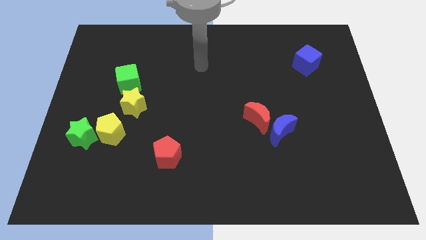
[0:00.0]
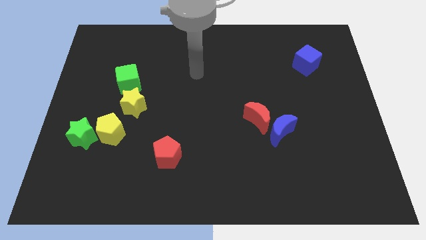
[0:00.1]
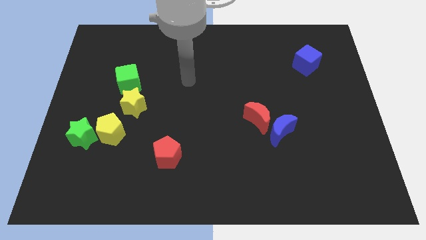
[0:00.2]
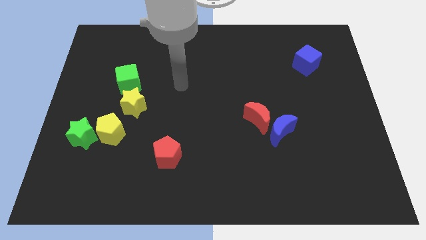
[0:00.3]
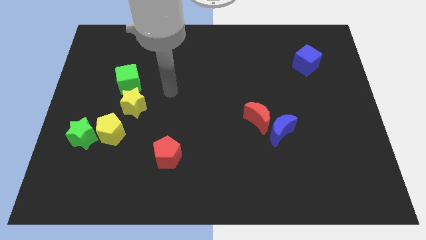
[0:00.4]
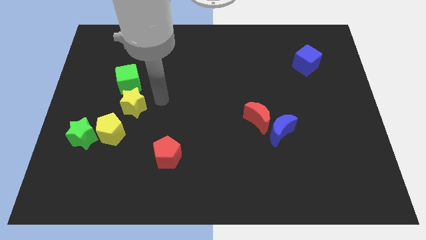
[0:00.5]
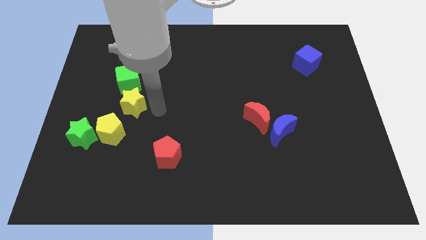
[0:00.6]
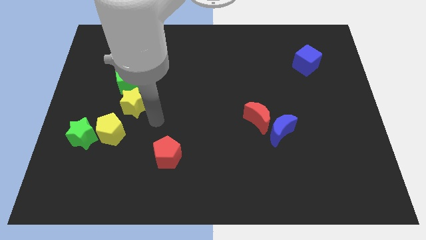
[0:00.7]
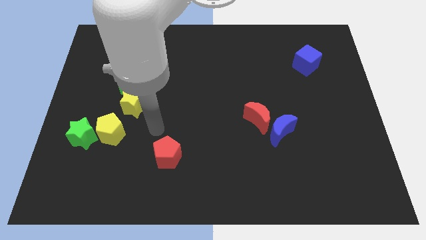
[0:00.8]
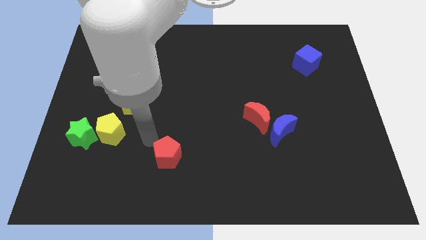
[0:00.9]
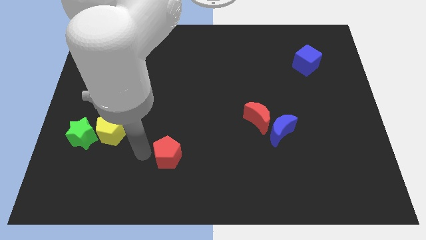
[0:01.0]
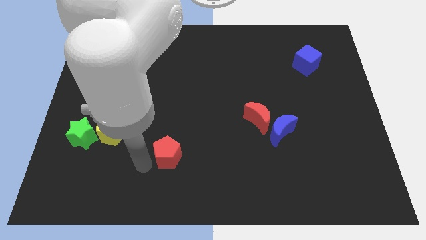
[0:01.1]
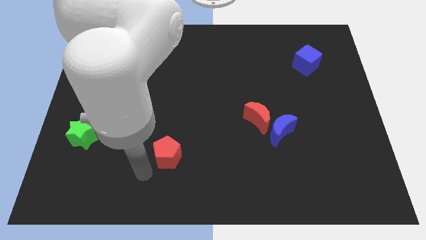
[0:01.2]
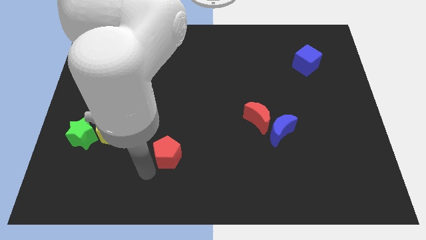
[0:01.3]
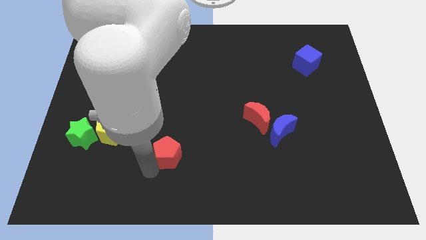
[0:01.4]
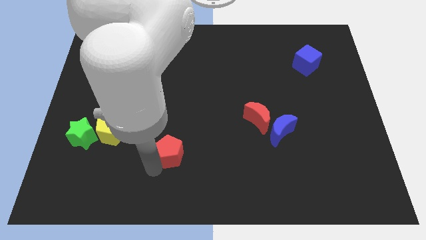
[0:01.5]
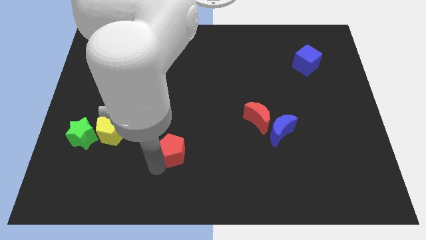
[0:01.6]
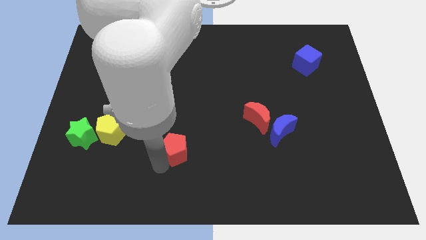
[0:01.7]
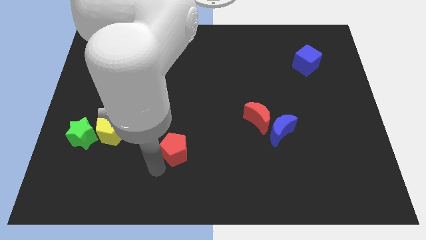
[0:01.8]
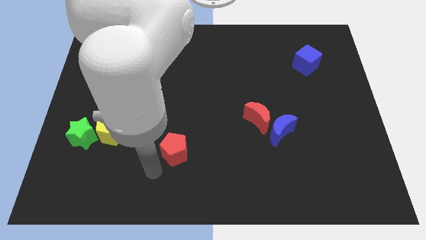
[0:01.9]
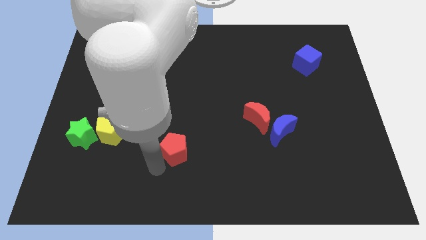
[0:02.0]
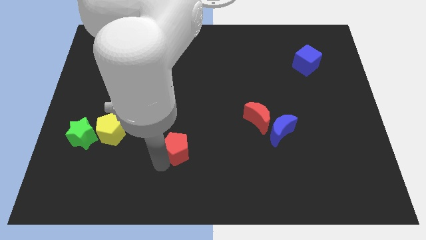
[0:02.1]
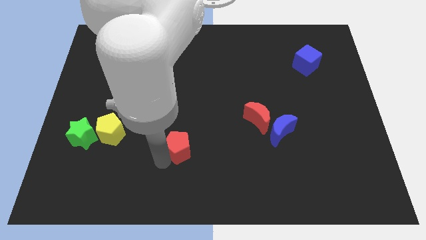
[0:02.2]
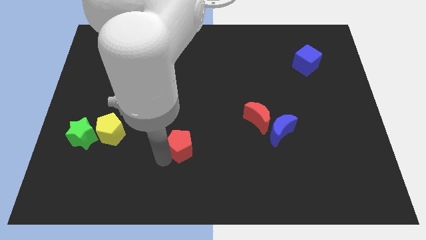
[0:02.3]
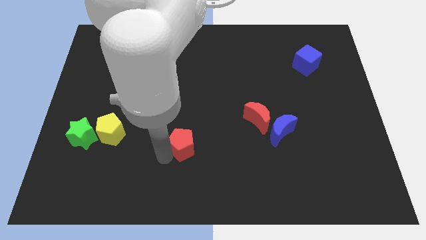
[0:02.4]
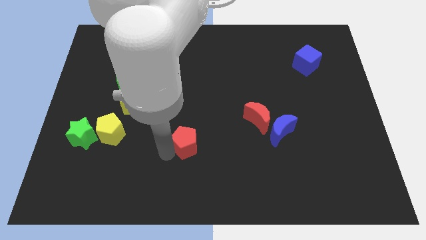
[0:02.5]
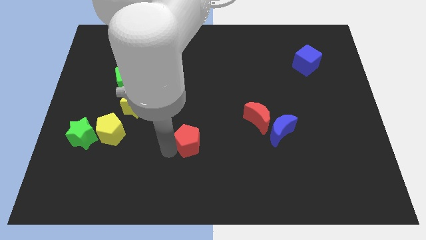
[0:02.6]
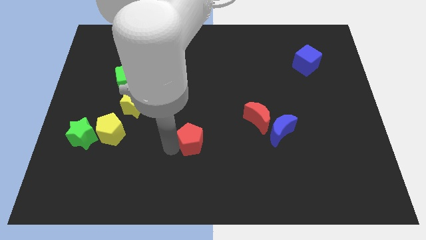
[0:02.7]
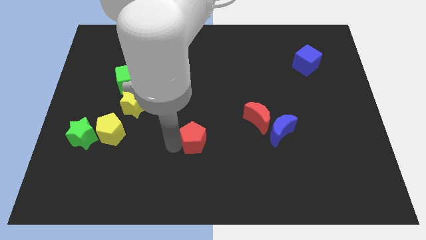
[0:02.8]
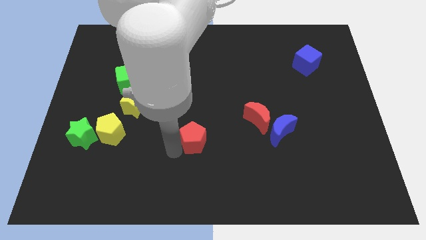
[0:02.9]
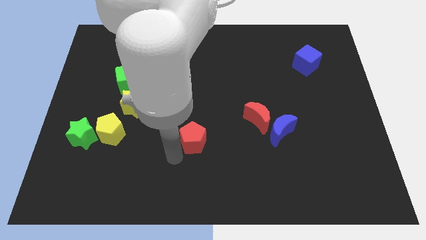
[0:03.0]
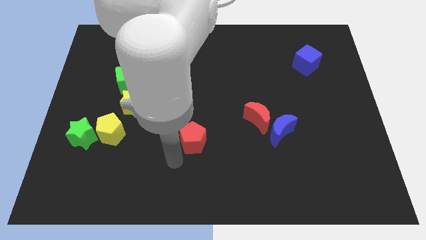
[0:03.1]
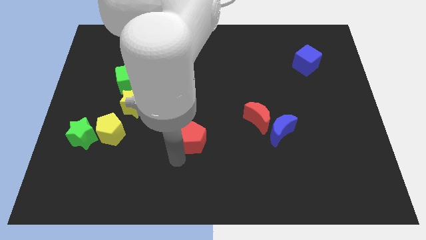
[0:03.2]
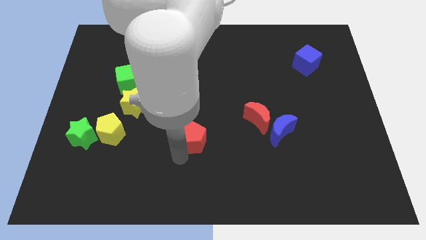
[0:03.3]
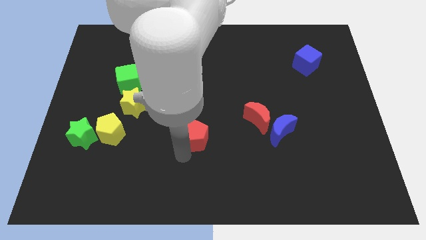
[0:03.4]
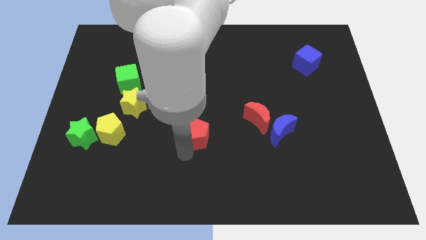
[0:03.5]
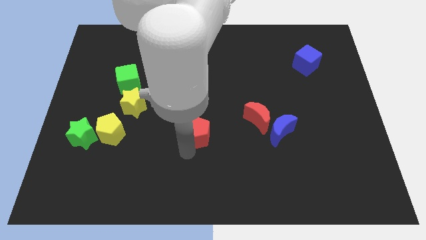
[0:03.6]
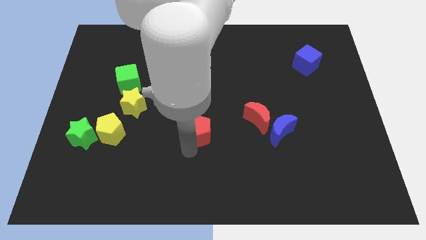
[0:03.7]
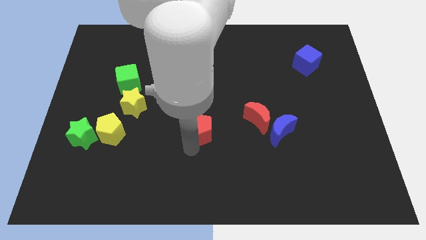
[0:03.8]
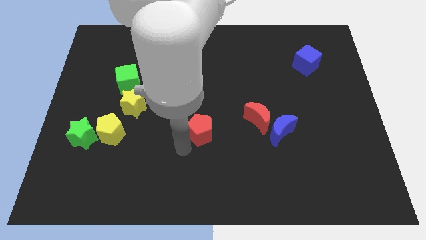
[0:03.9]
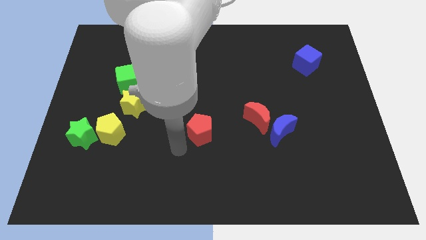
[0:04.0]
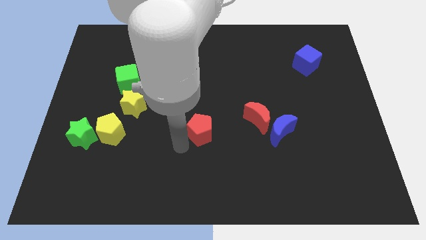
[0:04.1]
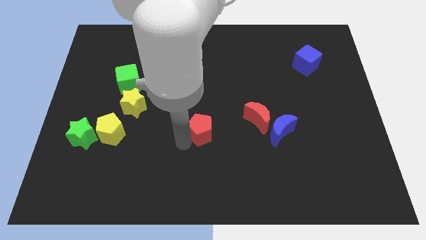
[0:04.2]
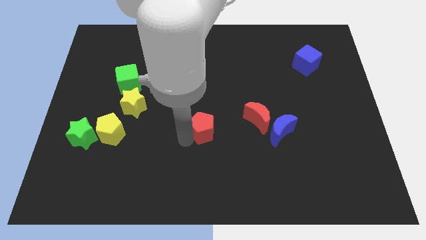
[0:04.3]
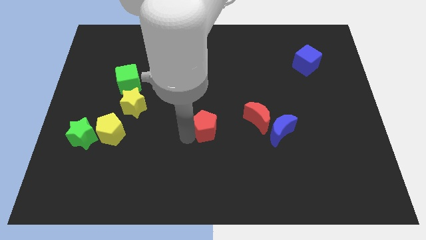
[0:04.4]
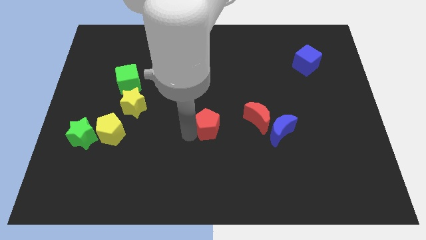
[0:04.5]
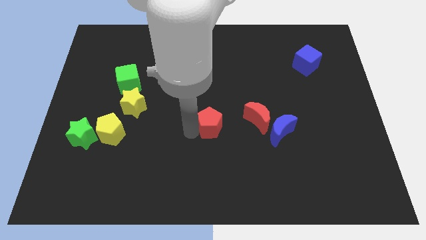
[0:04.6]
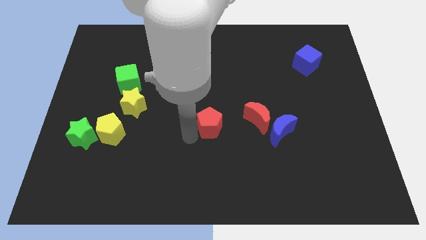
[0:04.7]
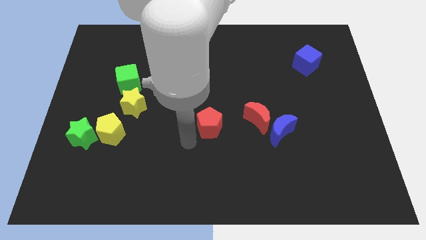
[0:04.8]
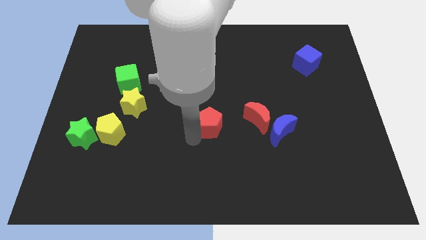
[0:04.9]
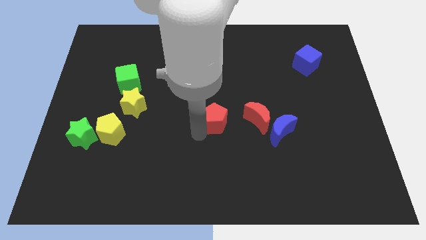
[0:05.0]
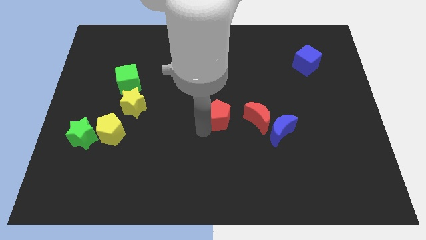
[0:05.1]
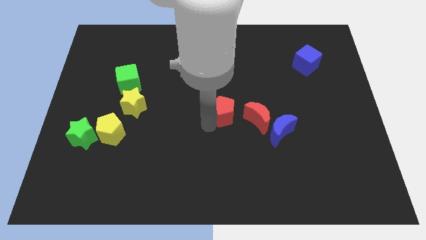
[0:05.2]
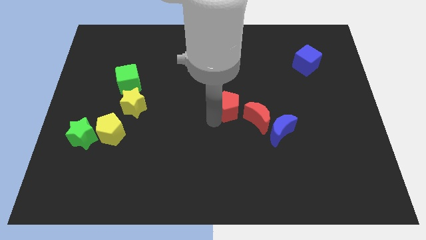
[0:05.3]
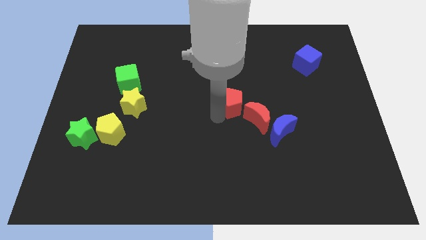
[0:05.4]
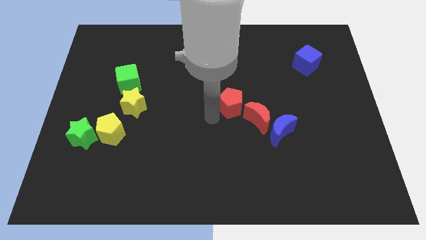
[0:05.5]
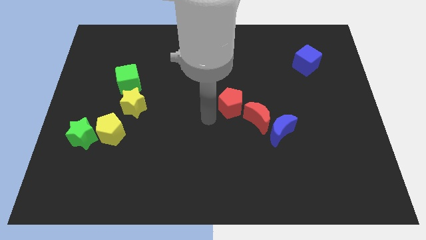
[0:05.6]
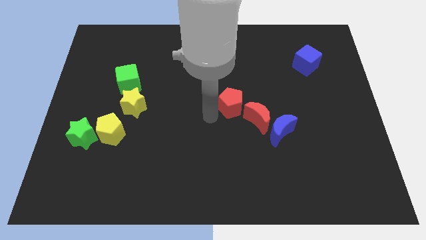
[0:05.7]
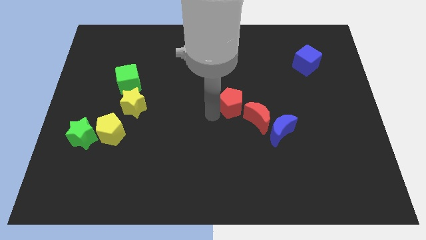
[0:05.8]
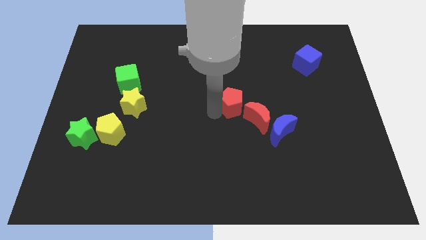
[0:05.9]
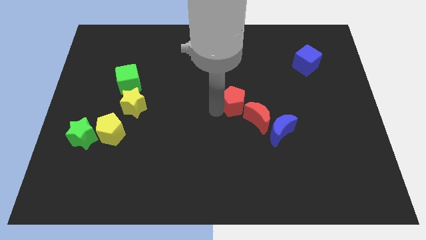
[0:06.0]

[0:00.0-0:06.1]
slide the red pentagon up and to the right diagonally

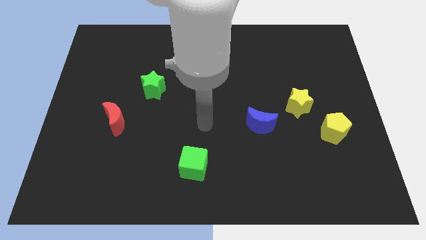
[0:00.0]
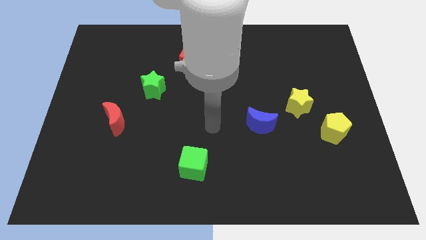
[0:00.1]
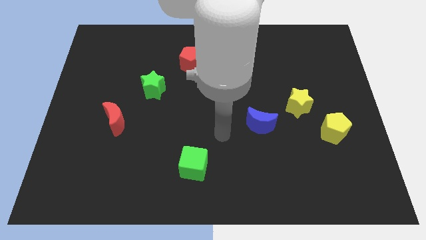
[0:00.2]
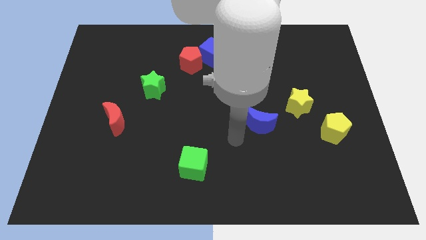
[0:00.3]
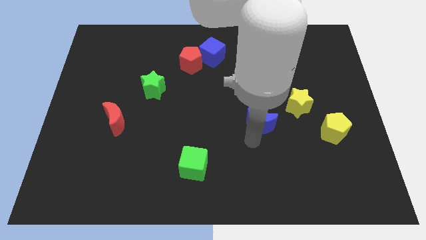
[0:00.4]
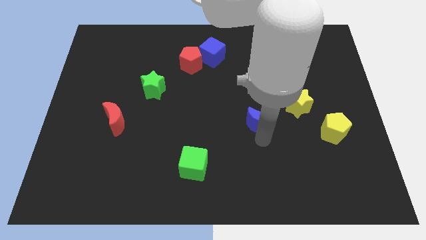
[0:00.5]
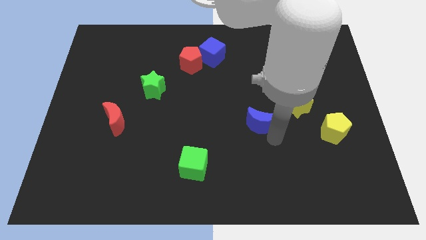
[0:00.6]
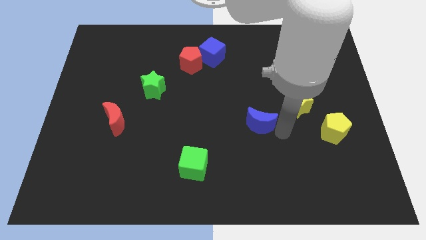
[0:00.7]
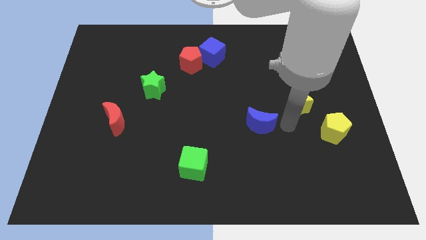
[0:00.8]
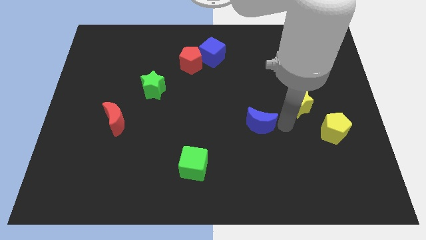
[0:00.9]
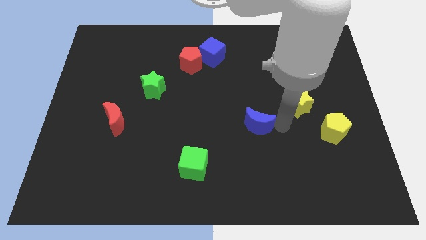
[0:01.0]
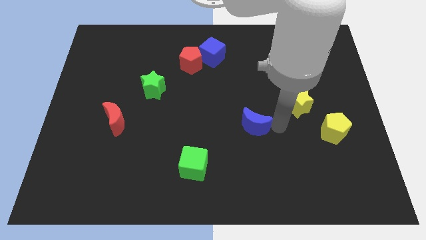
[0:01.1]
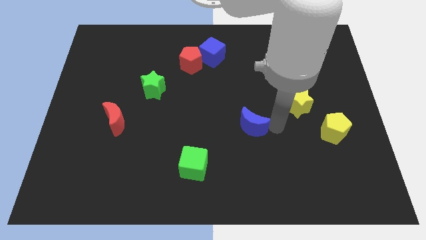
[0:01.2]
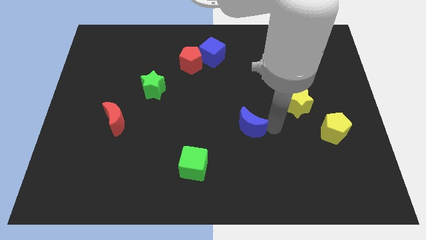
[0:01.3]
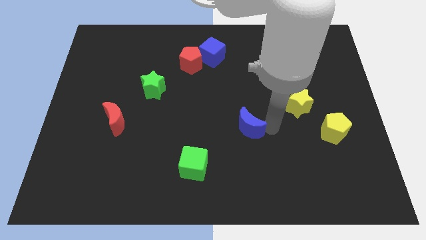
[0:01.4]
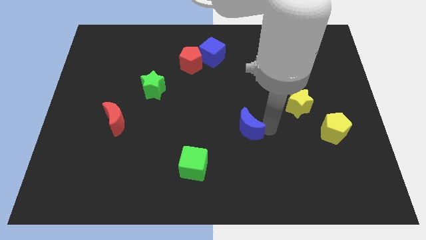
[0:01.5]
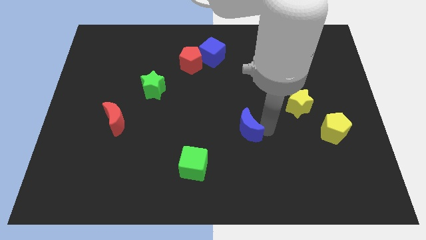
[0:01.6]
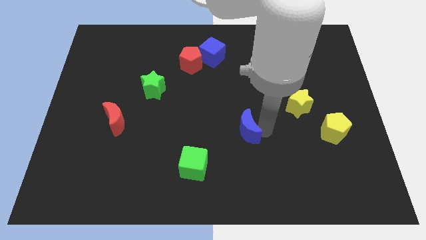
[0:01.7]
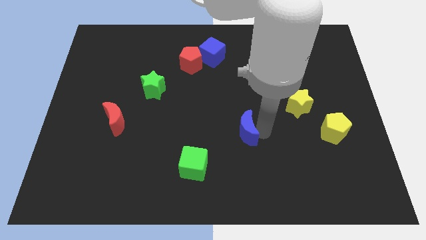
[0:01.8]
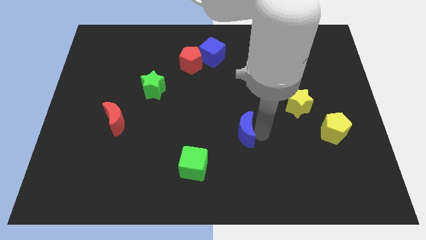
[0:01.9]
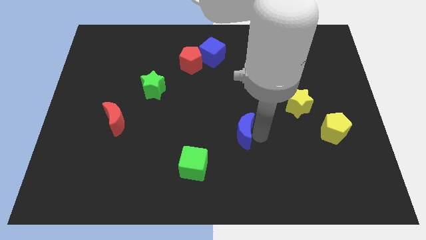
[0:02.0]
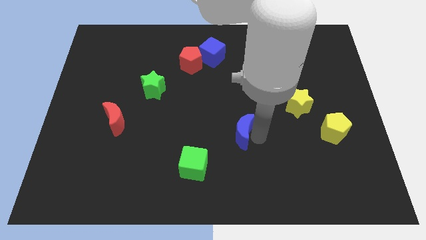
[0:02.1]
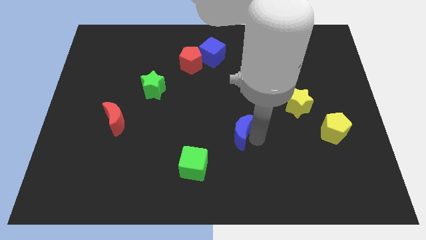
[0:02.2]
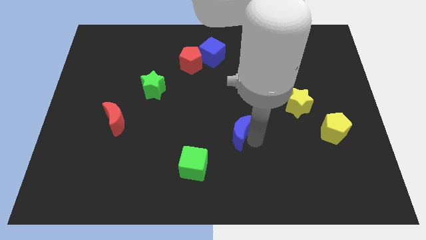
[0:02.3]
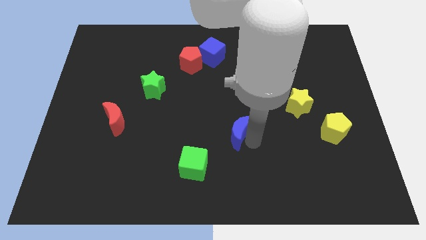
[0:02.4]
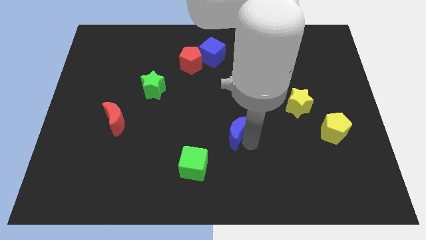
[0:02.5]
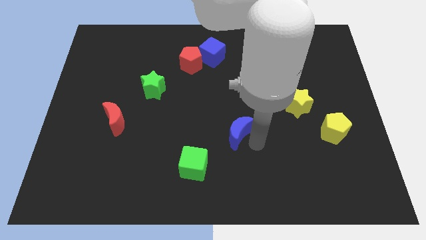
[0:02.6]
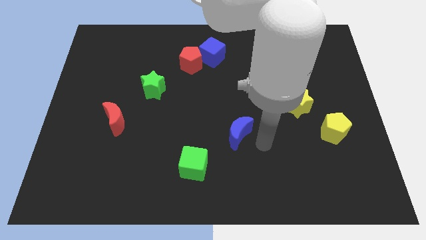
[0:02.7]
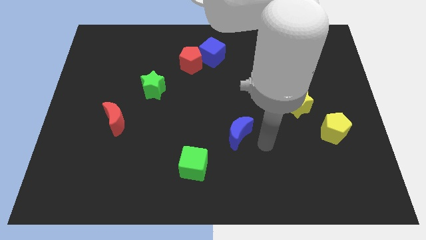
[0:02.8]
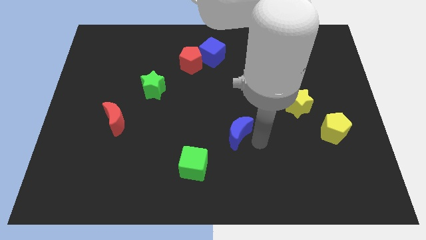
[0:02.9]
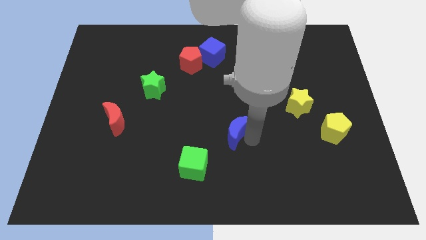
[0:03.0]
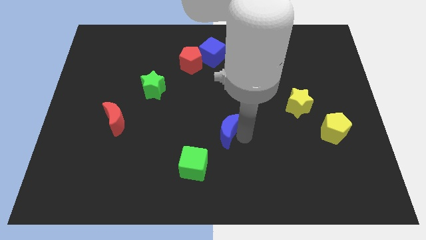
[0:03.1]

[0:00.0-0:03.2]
slightly slide the blue moon left
